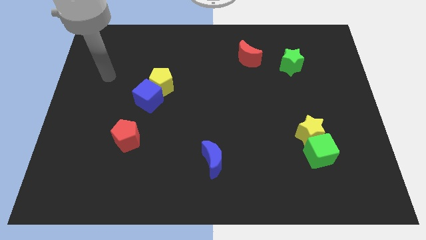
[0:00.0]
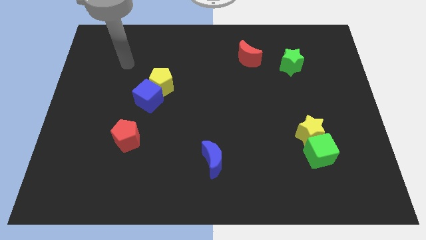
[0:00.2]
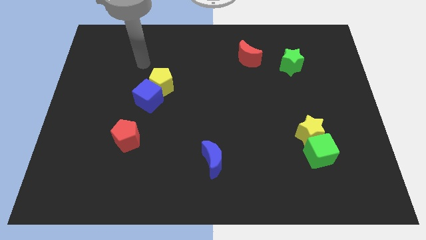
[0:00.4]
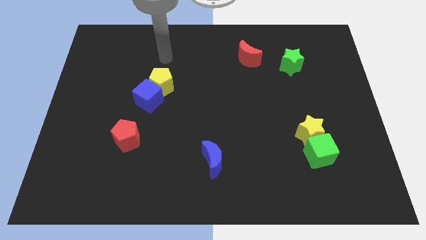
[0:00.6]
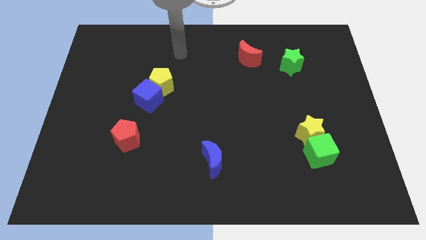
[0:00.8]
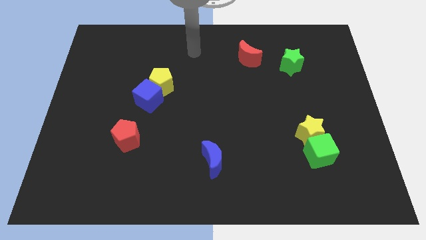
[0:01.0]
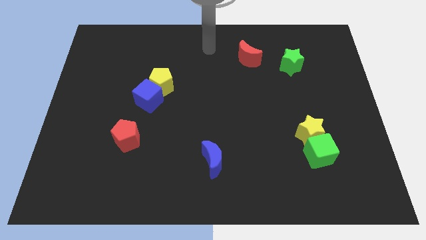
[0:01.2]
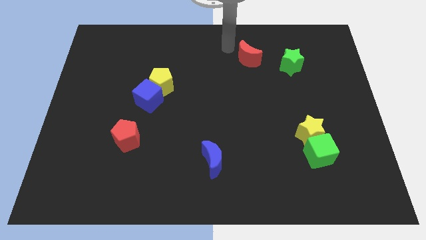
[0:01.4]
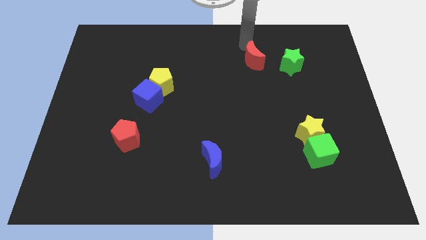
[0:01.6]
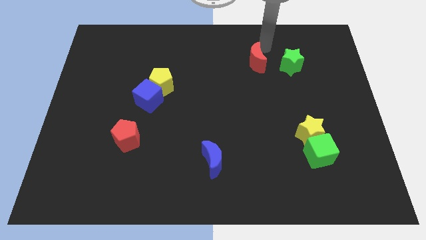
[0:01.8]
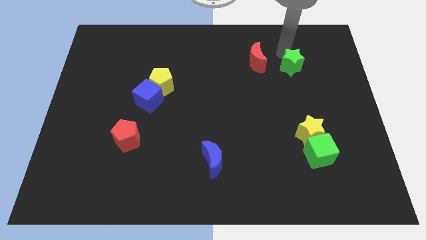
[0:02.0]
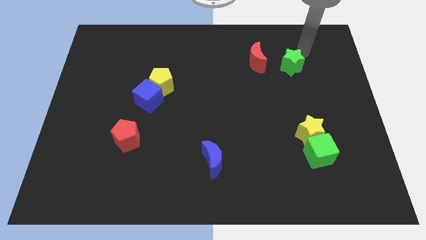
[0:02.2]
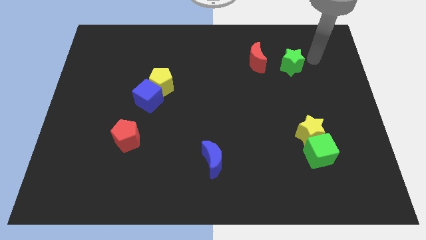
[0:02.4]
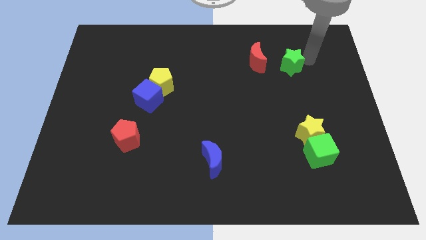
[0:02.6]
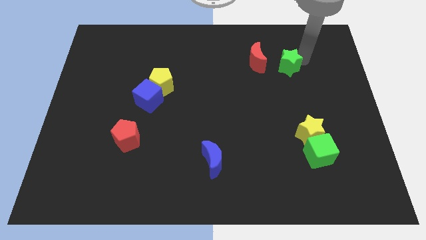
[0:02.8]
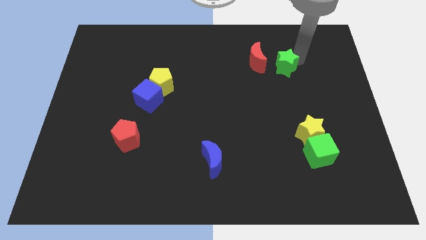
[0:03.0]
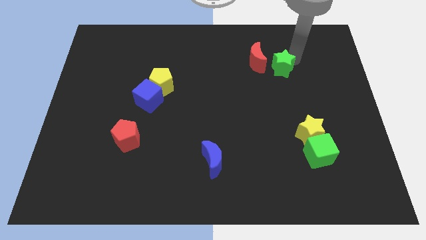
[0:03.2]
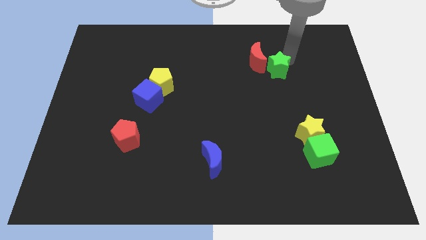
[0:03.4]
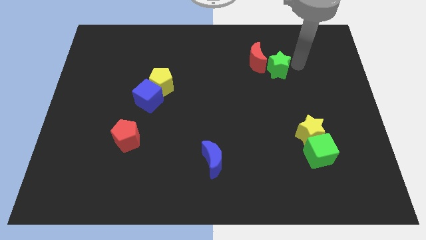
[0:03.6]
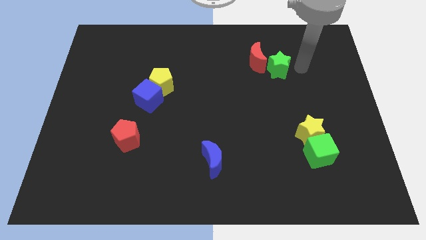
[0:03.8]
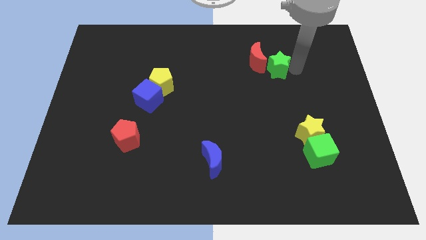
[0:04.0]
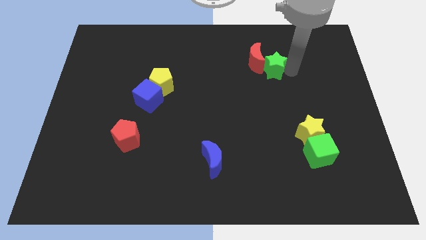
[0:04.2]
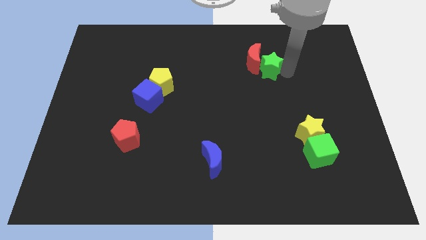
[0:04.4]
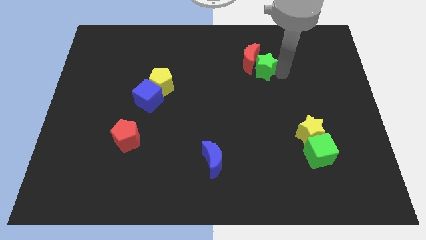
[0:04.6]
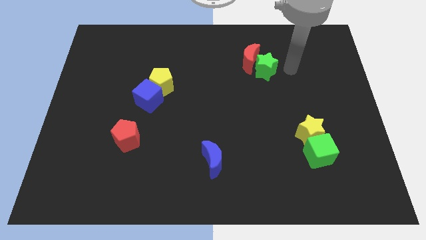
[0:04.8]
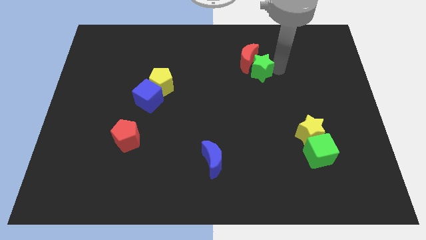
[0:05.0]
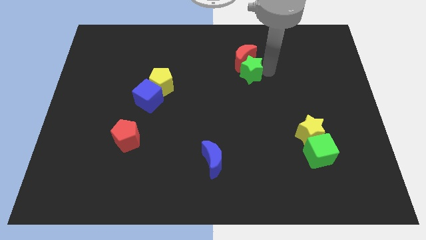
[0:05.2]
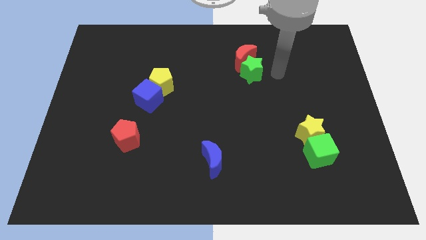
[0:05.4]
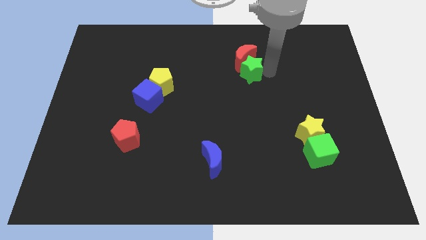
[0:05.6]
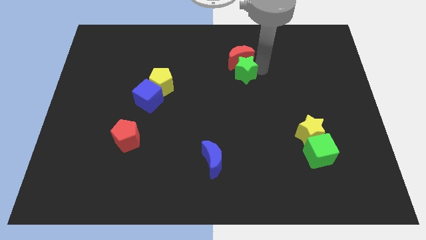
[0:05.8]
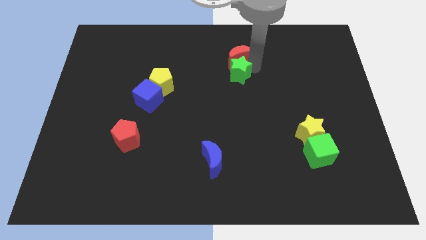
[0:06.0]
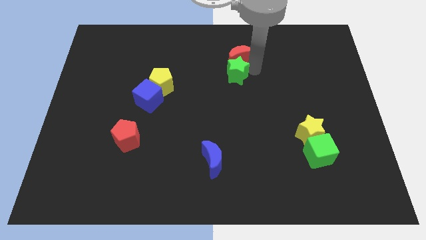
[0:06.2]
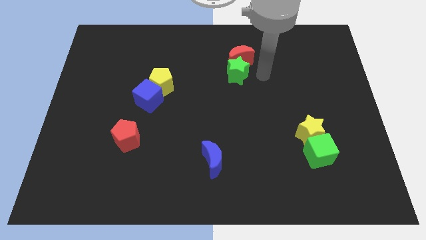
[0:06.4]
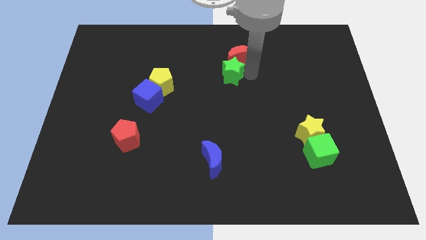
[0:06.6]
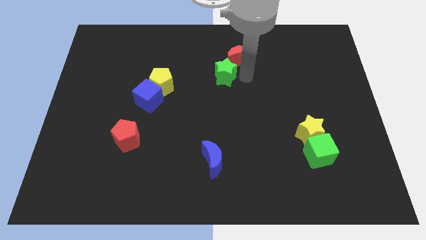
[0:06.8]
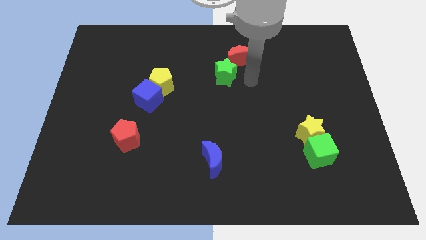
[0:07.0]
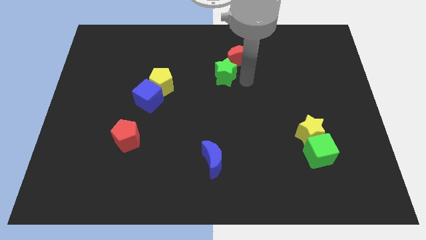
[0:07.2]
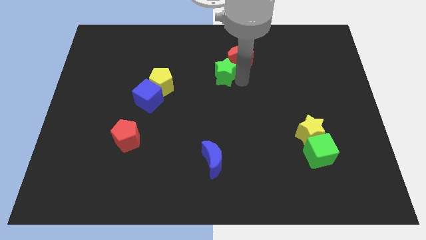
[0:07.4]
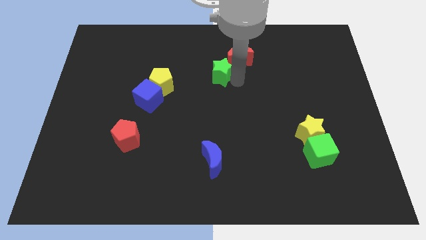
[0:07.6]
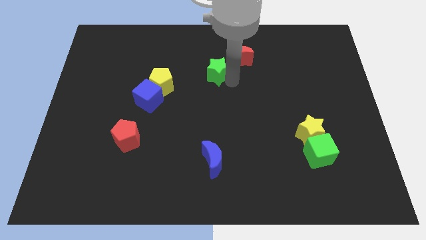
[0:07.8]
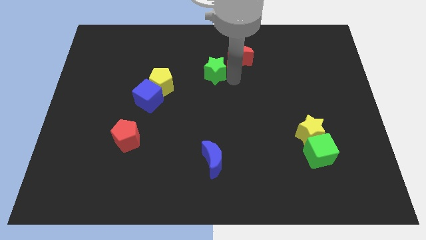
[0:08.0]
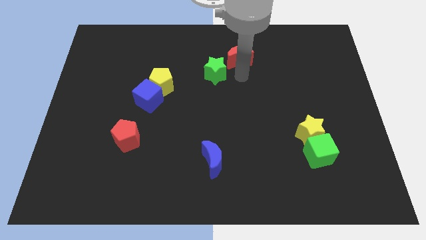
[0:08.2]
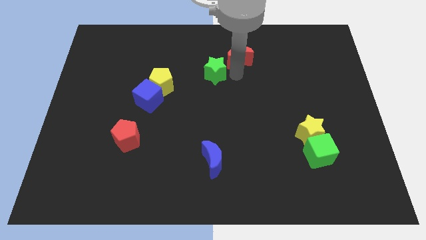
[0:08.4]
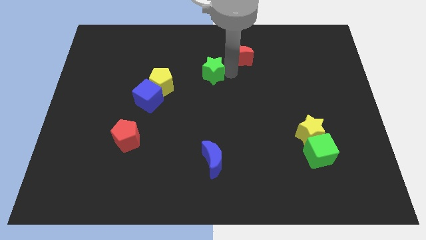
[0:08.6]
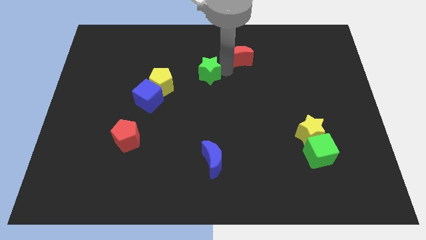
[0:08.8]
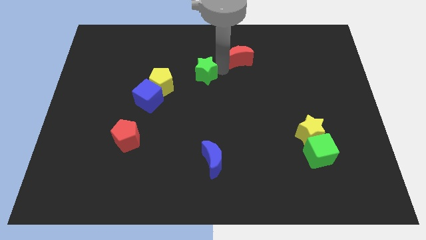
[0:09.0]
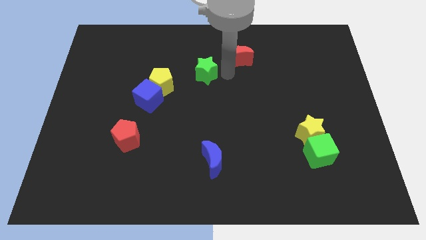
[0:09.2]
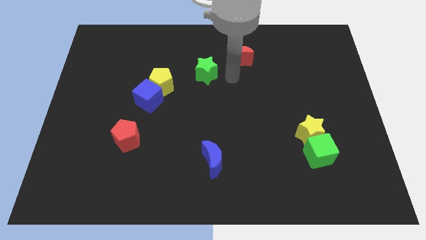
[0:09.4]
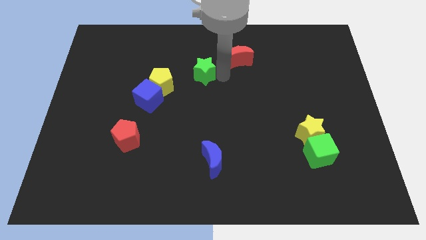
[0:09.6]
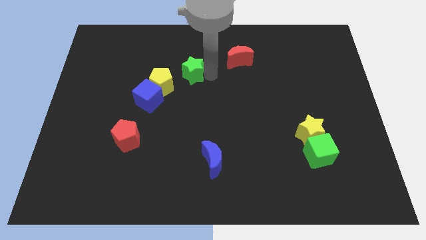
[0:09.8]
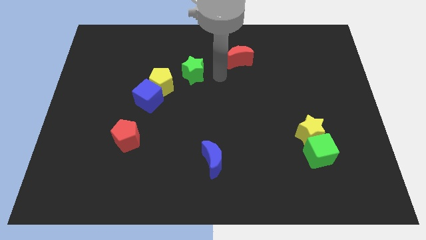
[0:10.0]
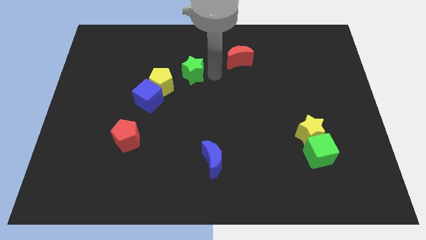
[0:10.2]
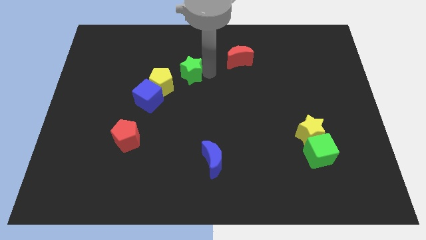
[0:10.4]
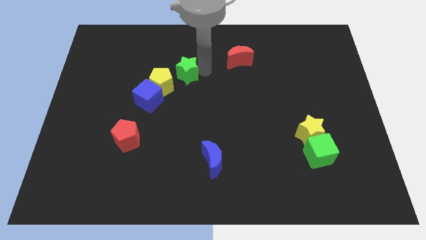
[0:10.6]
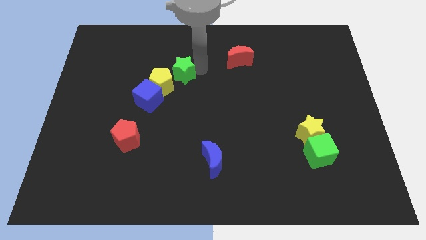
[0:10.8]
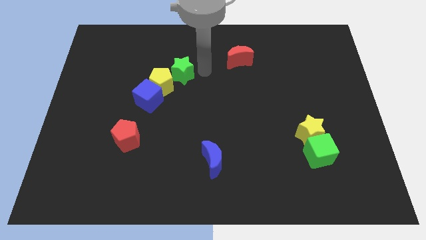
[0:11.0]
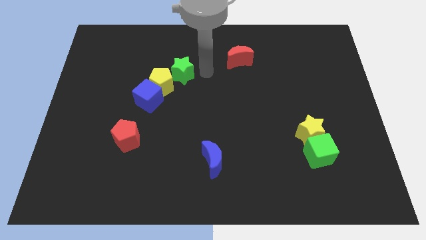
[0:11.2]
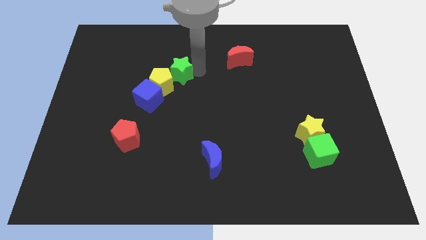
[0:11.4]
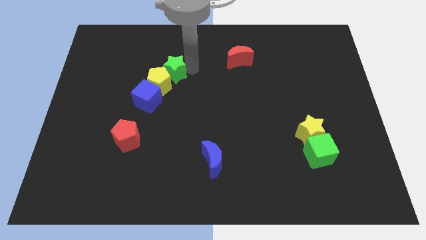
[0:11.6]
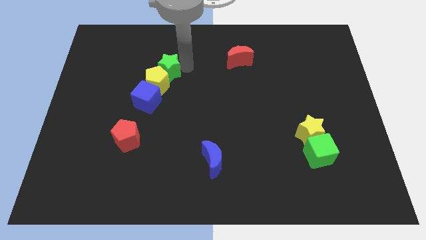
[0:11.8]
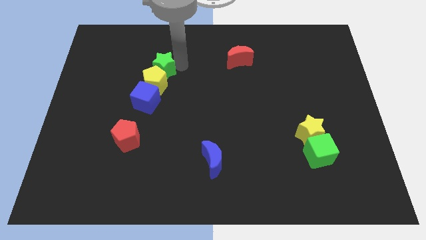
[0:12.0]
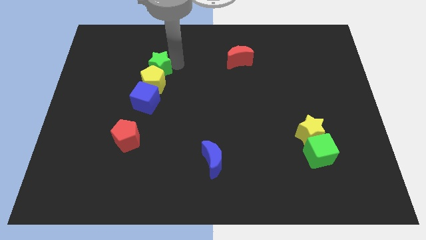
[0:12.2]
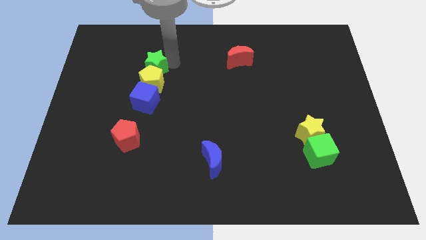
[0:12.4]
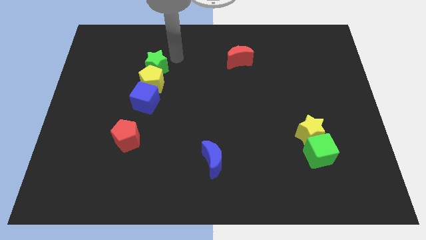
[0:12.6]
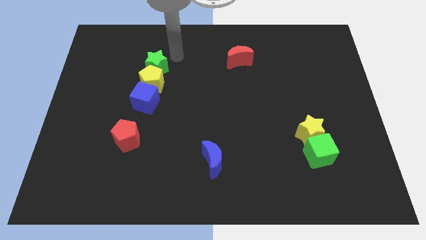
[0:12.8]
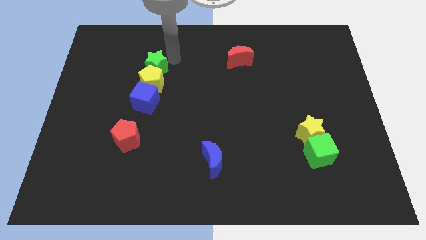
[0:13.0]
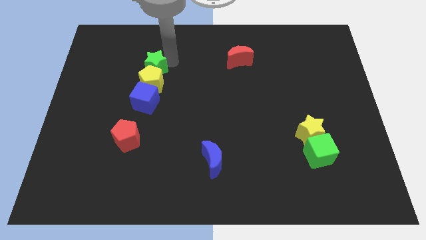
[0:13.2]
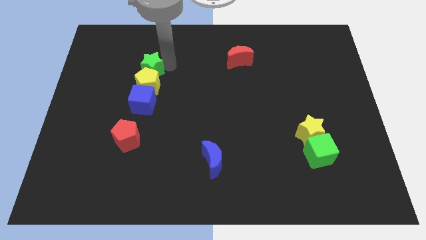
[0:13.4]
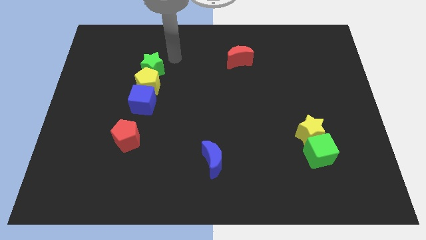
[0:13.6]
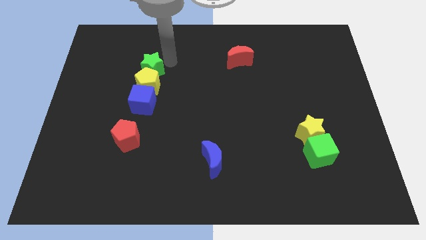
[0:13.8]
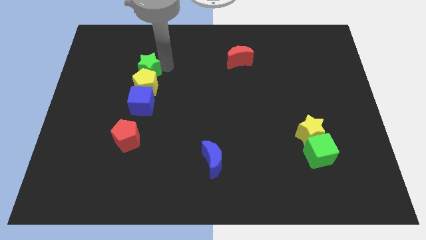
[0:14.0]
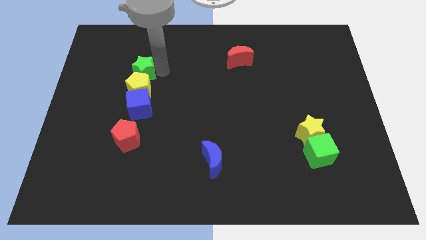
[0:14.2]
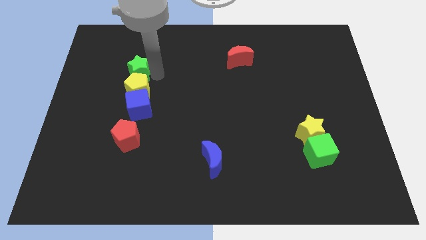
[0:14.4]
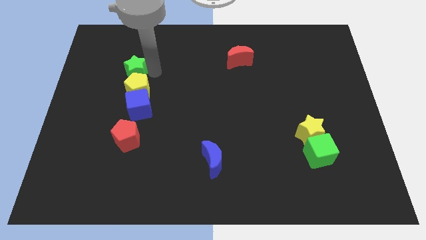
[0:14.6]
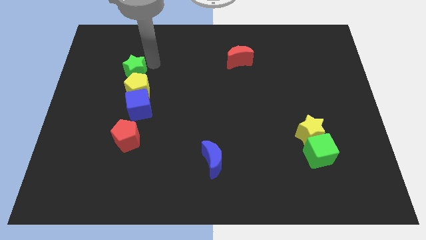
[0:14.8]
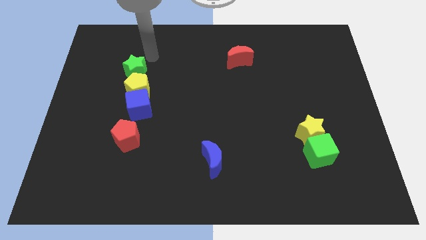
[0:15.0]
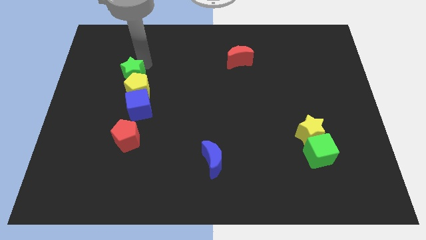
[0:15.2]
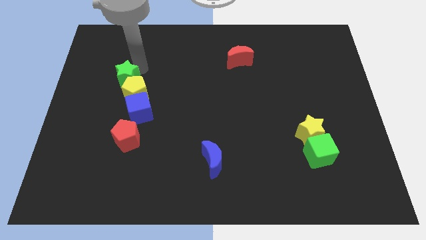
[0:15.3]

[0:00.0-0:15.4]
put the green star diagonally up and to the left of the blue cube

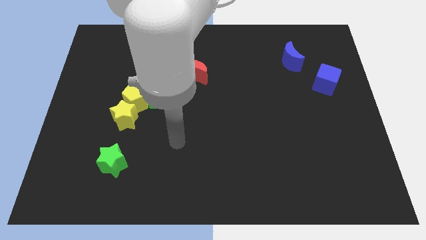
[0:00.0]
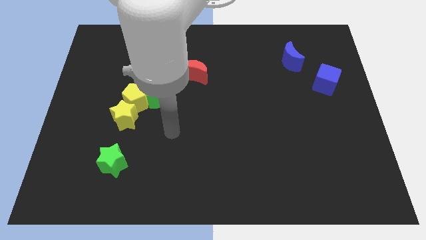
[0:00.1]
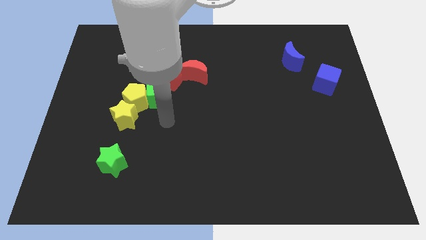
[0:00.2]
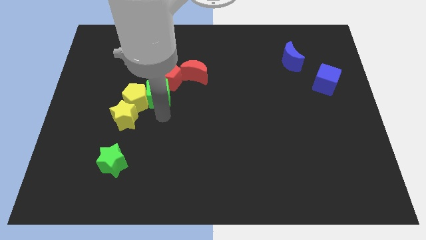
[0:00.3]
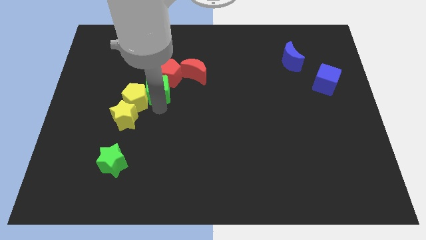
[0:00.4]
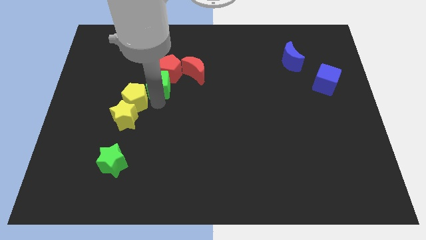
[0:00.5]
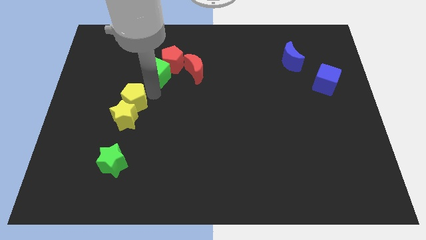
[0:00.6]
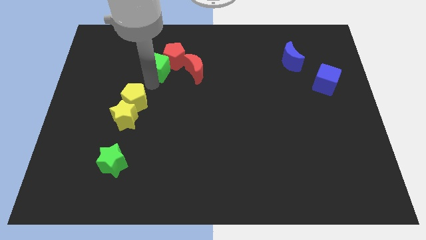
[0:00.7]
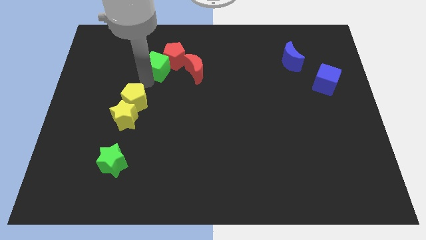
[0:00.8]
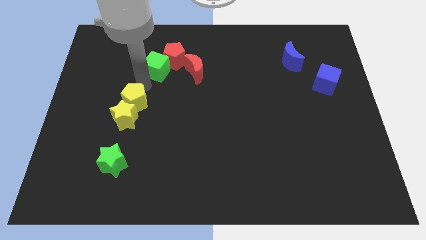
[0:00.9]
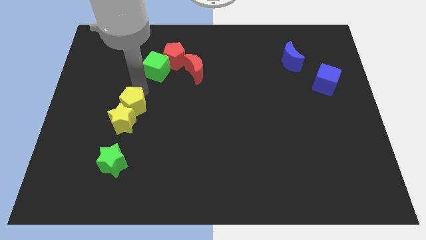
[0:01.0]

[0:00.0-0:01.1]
put the yellow pentagon to the top of the green star
